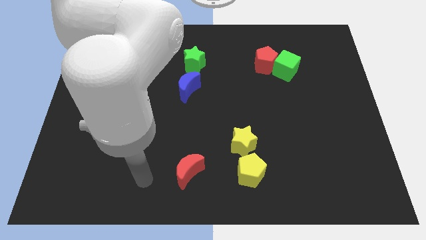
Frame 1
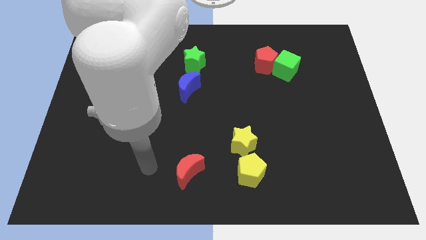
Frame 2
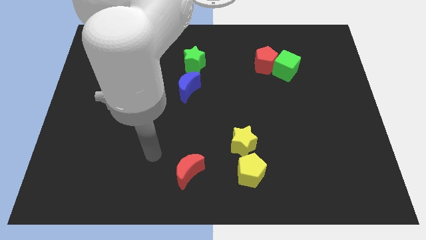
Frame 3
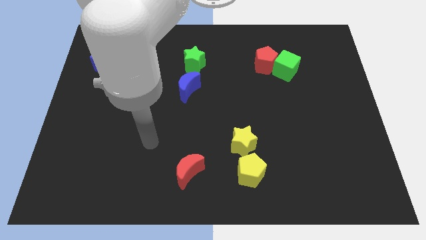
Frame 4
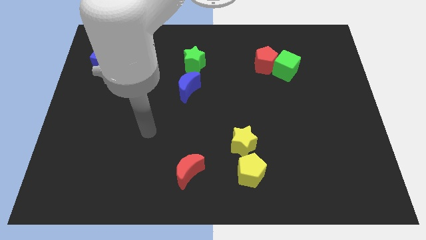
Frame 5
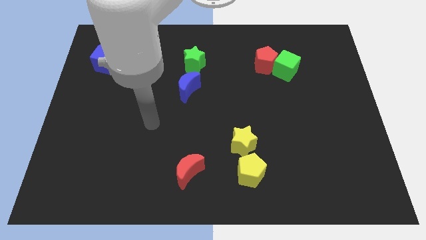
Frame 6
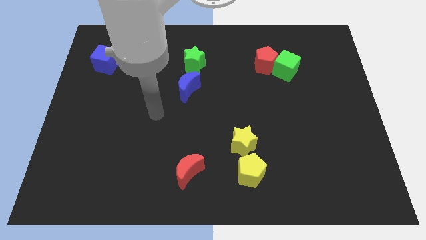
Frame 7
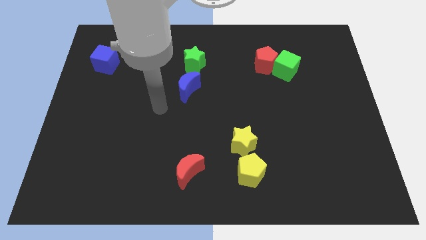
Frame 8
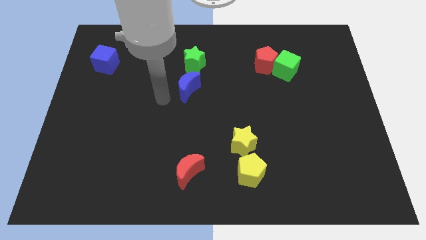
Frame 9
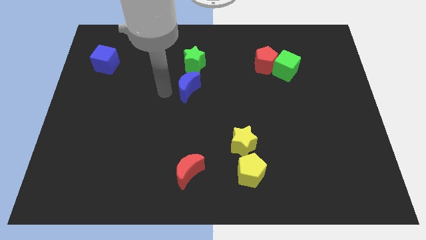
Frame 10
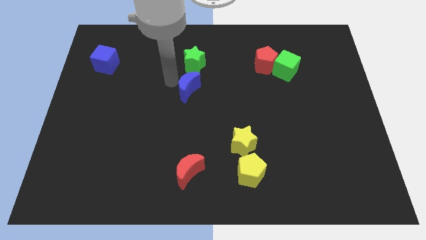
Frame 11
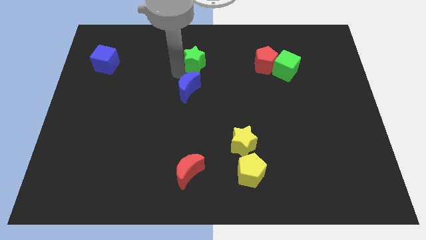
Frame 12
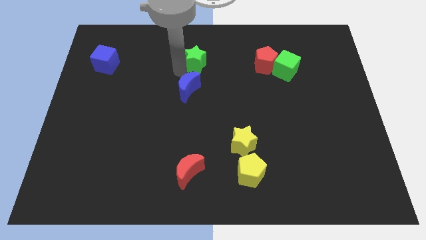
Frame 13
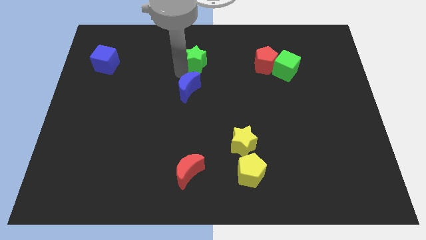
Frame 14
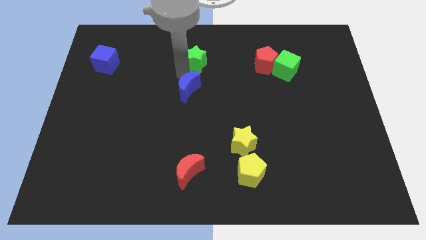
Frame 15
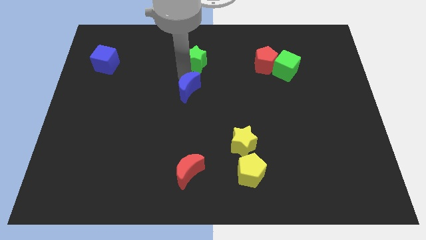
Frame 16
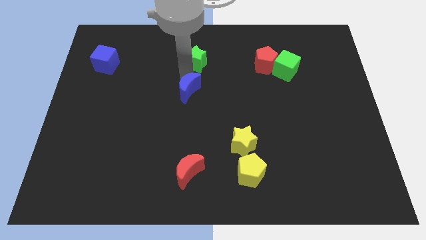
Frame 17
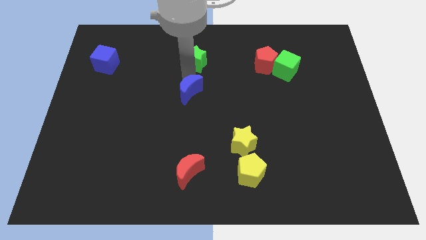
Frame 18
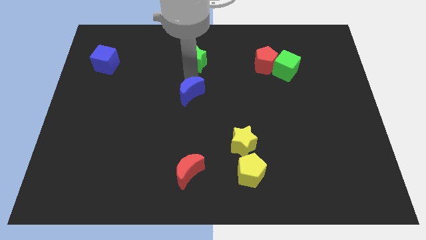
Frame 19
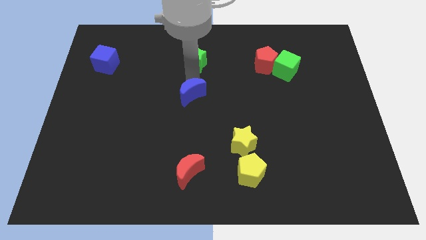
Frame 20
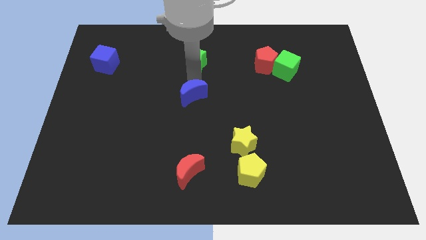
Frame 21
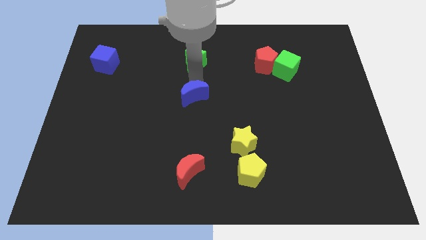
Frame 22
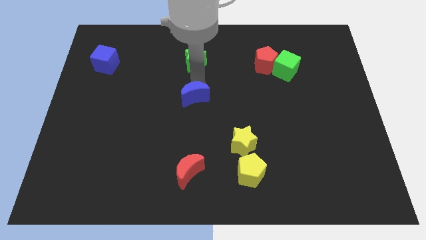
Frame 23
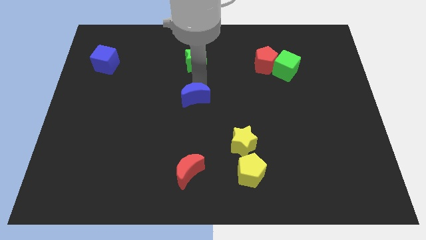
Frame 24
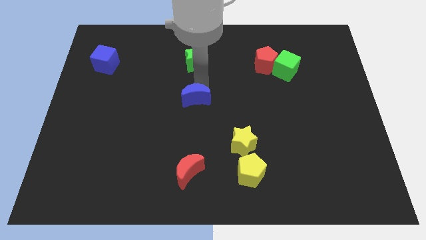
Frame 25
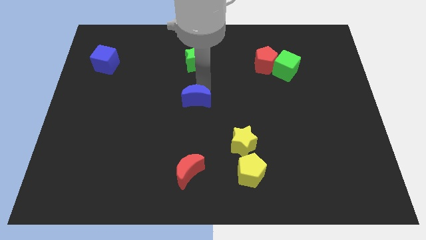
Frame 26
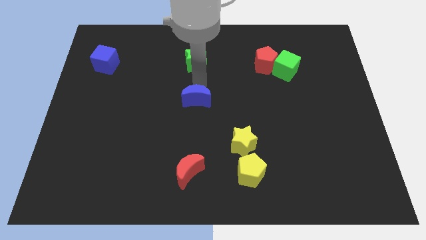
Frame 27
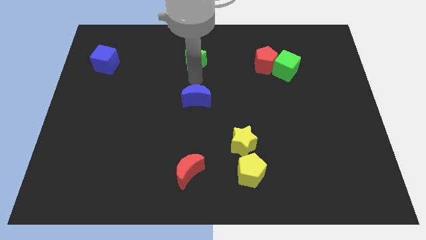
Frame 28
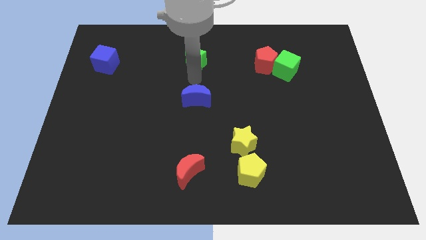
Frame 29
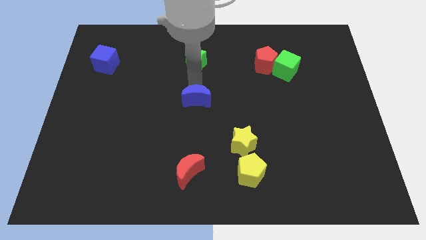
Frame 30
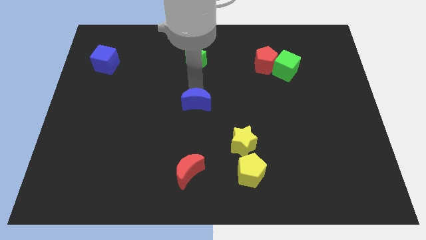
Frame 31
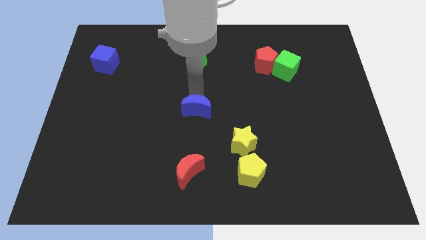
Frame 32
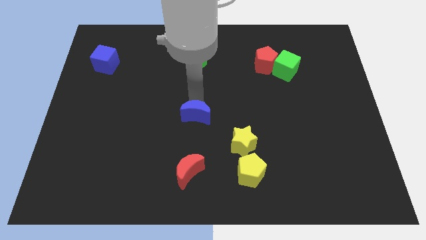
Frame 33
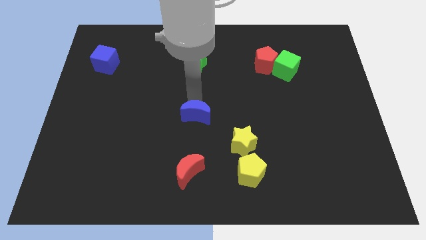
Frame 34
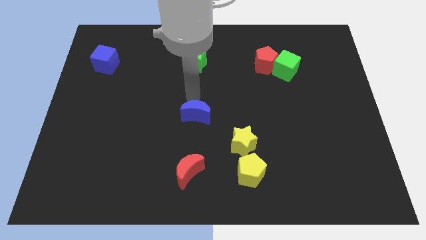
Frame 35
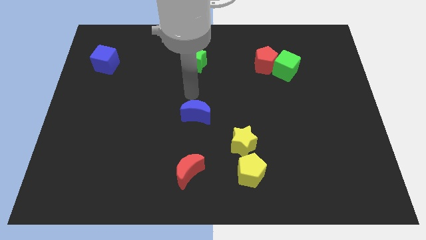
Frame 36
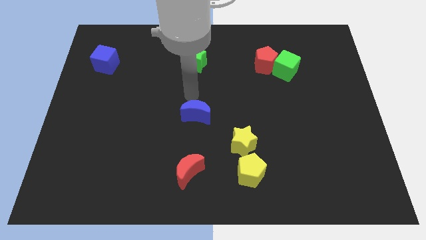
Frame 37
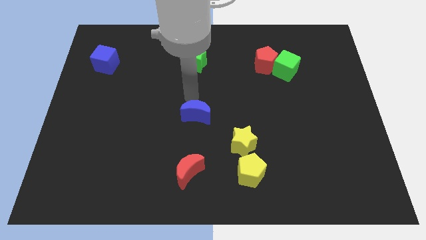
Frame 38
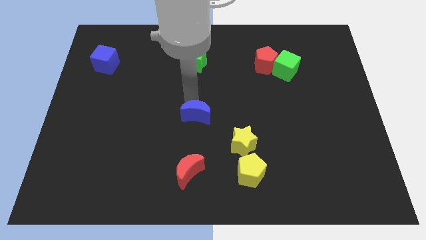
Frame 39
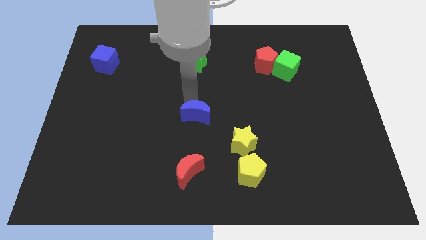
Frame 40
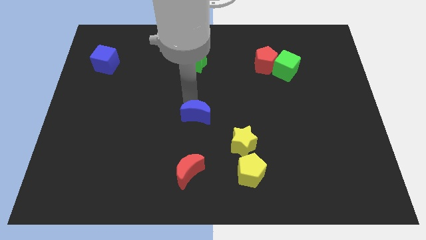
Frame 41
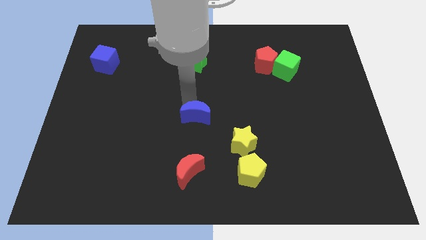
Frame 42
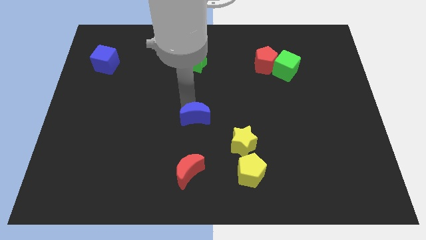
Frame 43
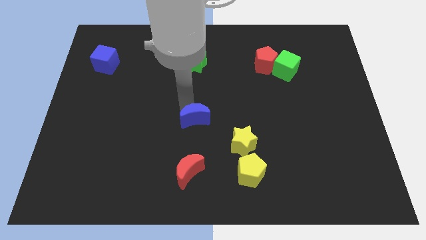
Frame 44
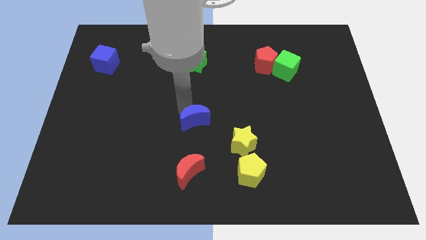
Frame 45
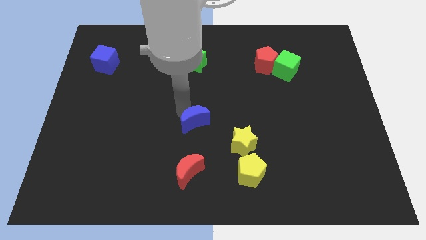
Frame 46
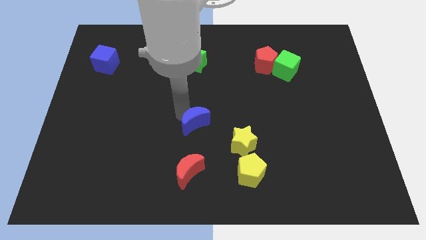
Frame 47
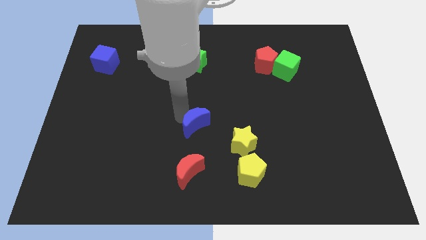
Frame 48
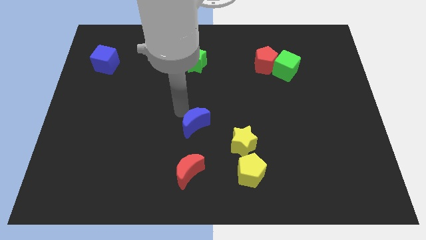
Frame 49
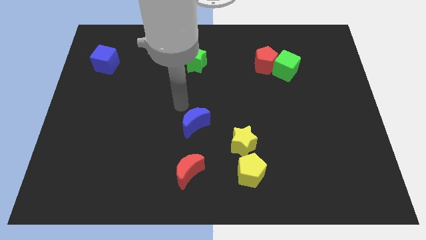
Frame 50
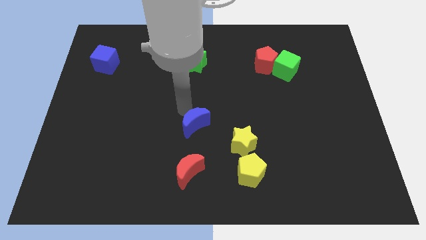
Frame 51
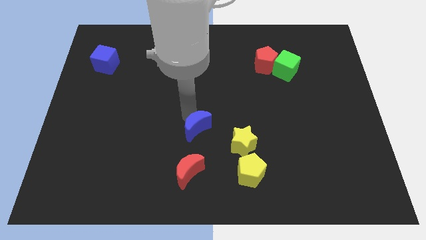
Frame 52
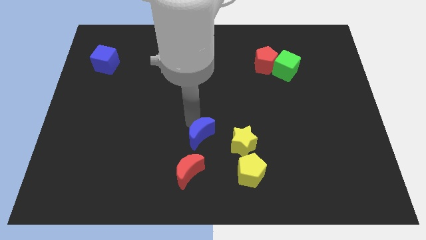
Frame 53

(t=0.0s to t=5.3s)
put the blue moon to the top right side of the red moon

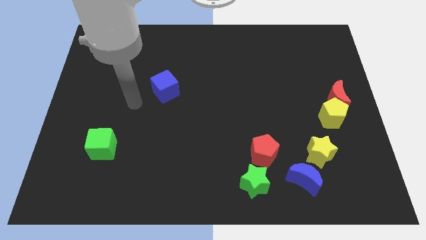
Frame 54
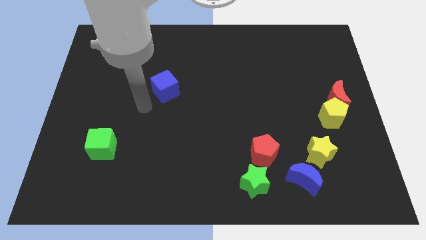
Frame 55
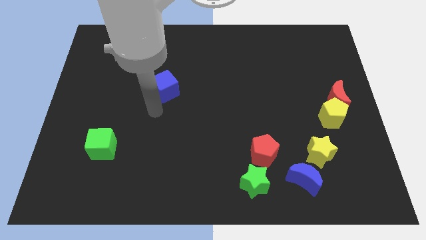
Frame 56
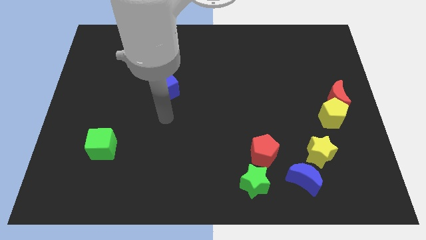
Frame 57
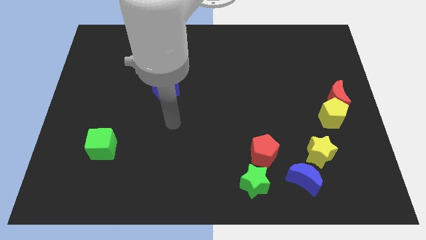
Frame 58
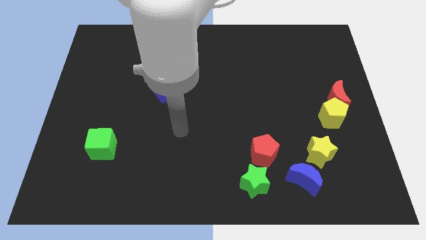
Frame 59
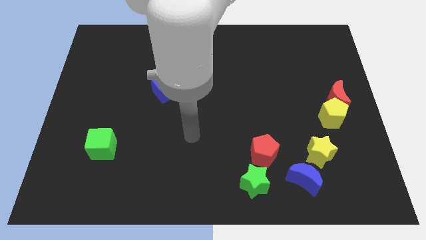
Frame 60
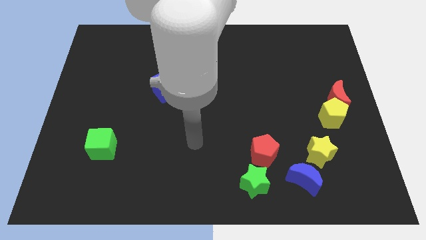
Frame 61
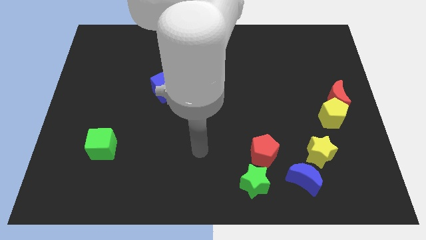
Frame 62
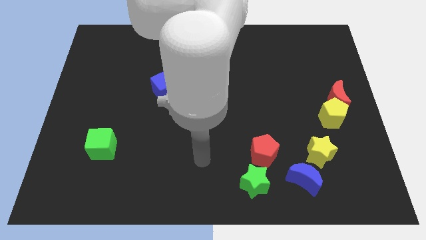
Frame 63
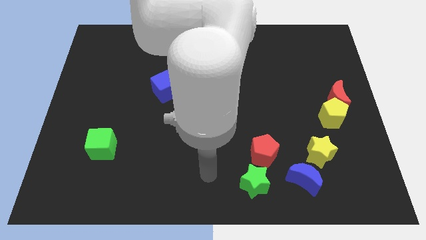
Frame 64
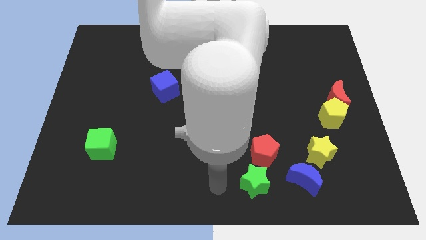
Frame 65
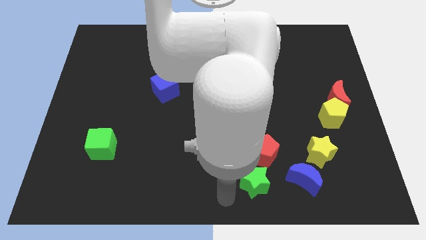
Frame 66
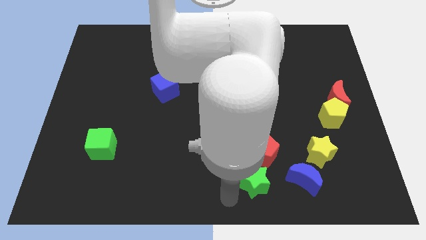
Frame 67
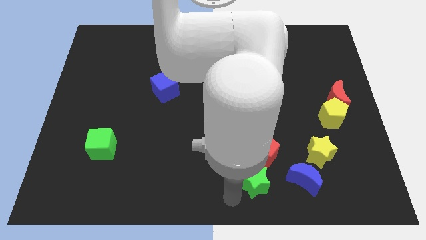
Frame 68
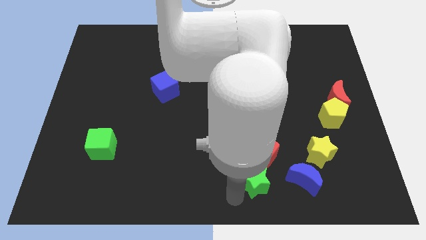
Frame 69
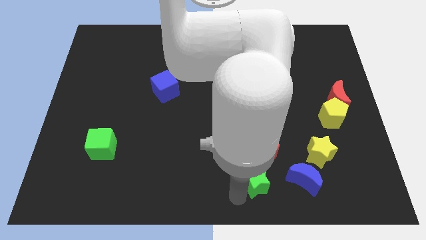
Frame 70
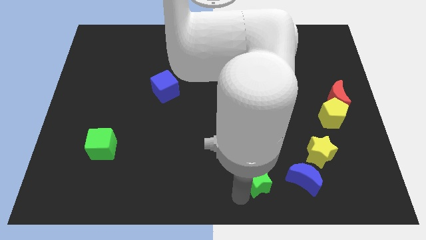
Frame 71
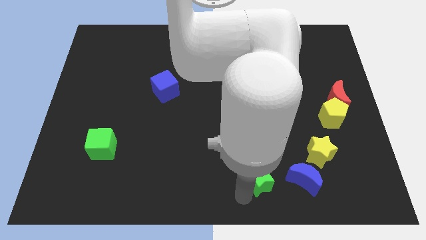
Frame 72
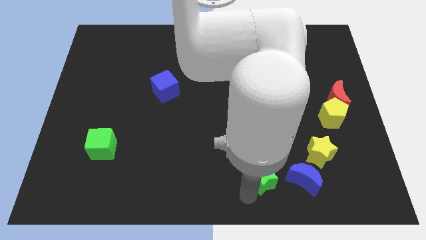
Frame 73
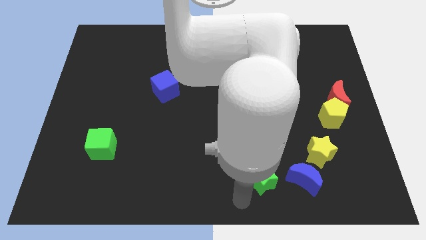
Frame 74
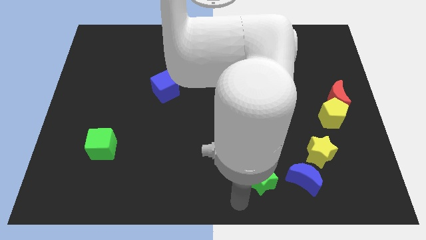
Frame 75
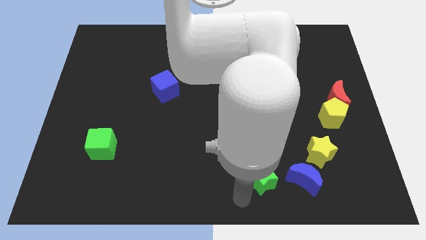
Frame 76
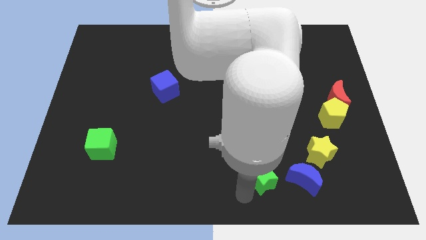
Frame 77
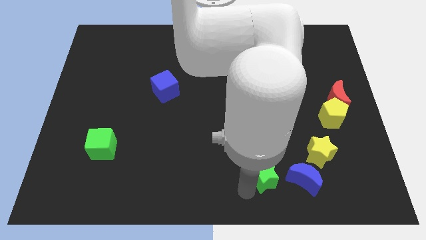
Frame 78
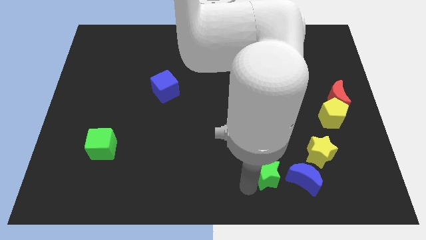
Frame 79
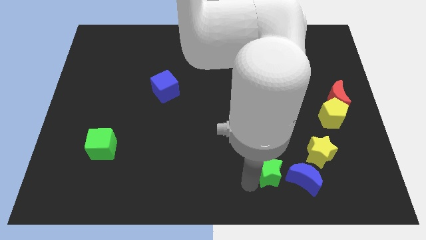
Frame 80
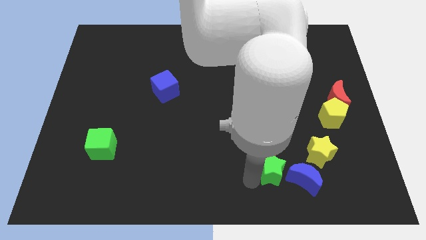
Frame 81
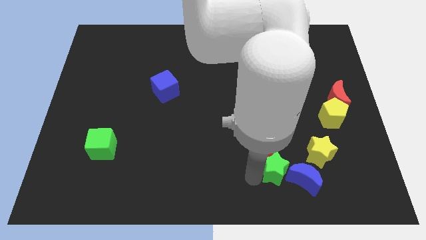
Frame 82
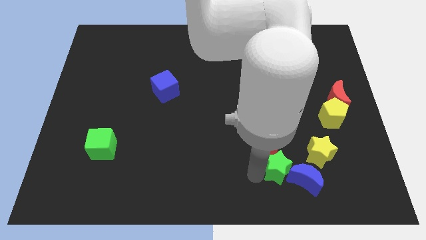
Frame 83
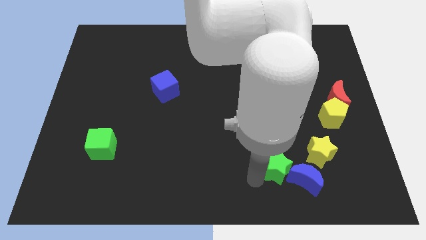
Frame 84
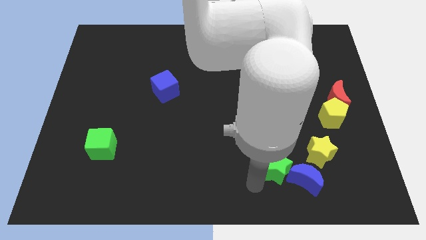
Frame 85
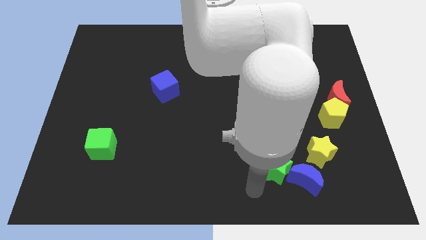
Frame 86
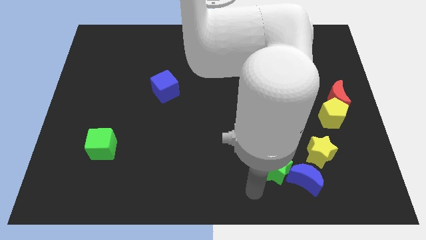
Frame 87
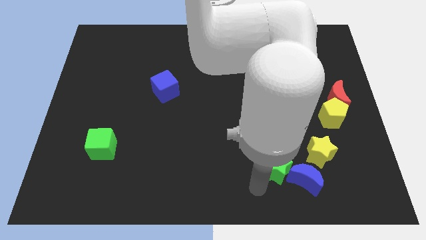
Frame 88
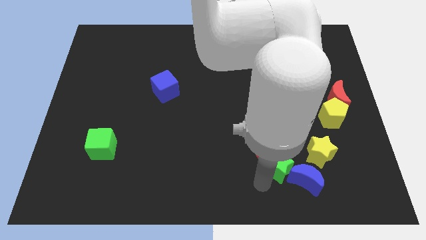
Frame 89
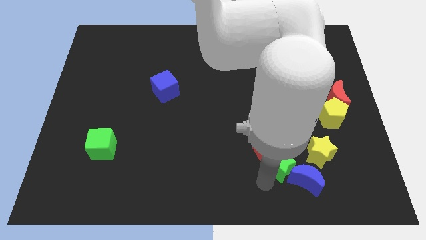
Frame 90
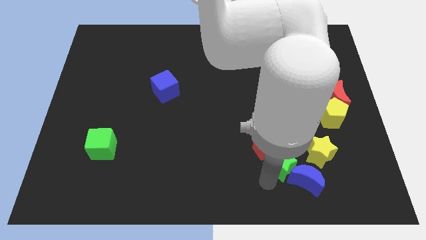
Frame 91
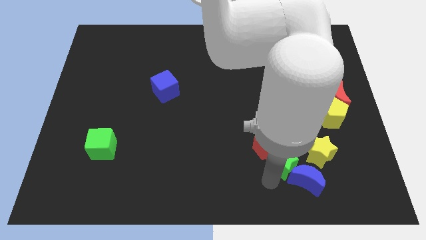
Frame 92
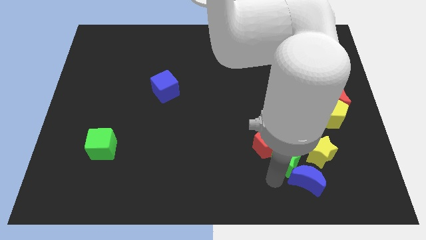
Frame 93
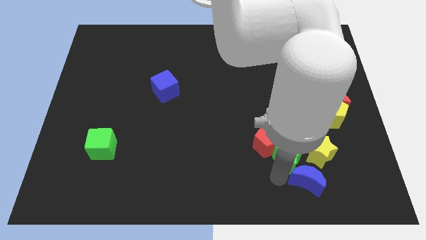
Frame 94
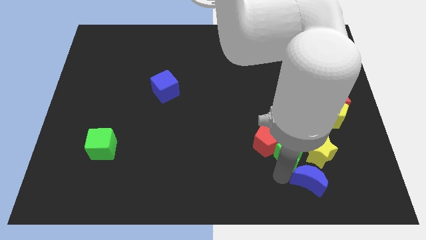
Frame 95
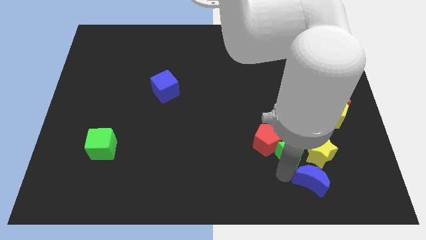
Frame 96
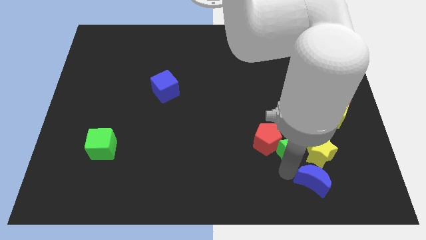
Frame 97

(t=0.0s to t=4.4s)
put the green star to the top left of the yellow star
